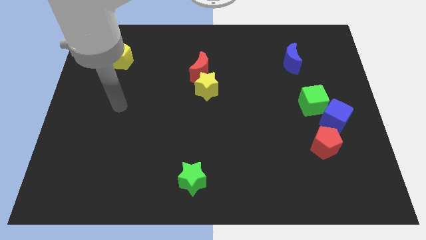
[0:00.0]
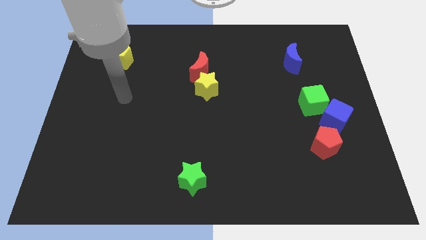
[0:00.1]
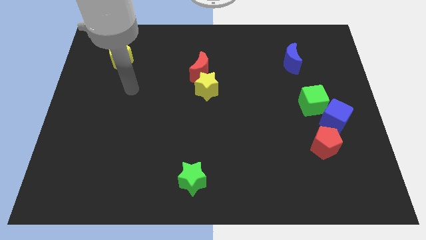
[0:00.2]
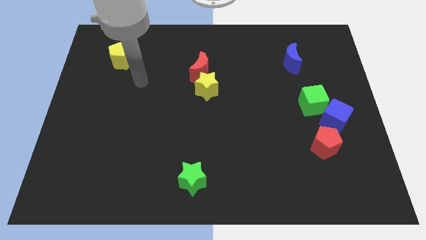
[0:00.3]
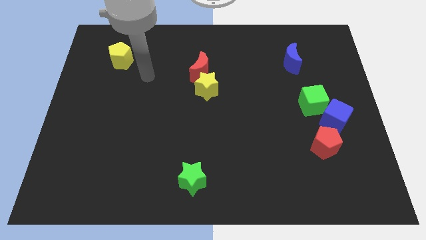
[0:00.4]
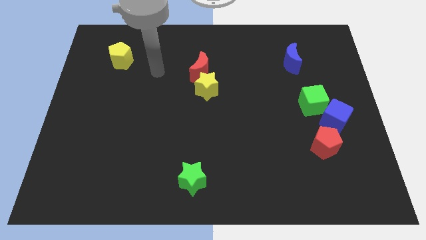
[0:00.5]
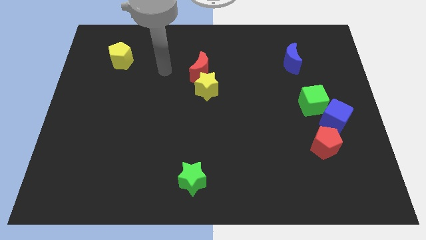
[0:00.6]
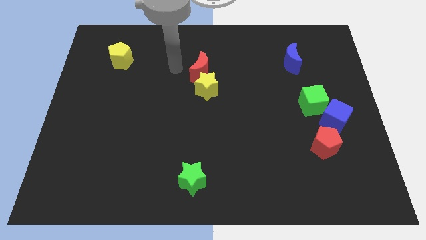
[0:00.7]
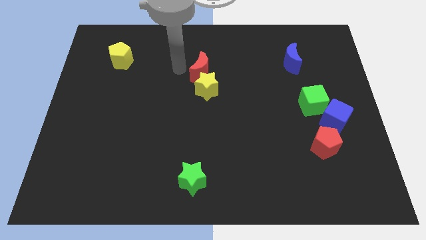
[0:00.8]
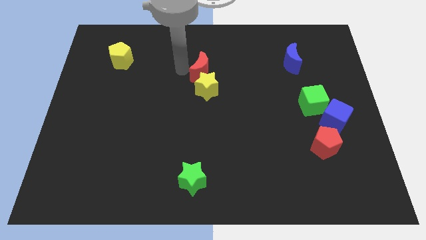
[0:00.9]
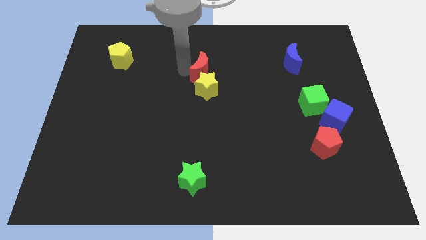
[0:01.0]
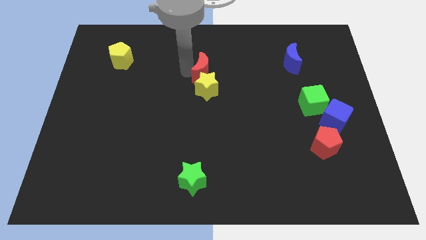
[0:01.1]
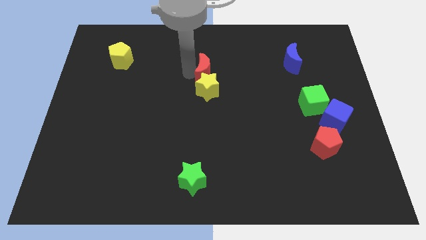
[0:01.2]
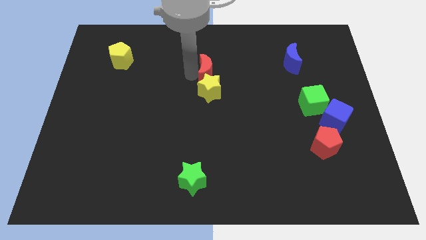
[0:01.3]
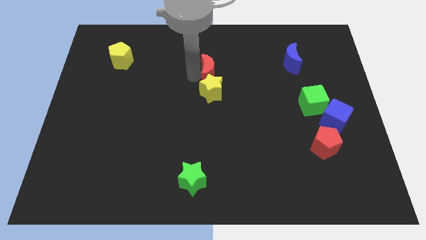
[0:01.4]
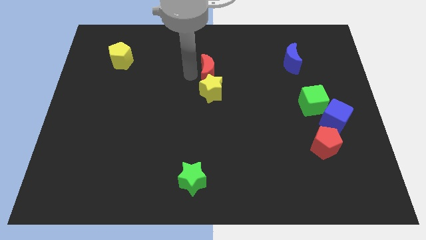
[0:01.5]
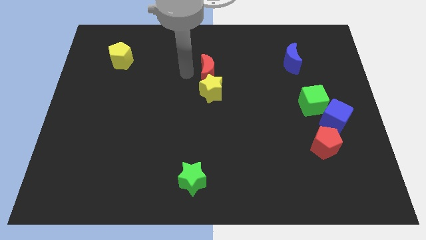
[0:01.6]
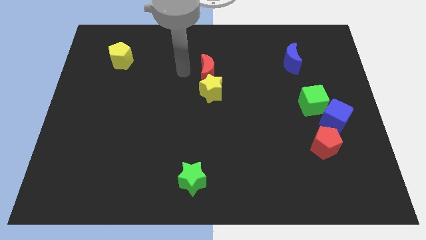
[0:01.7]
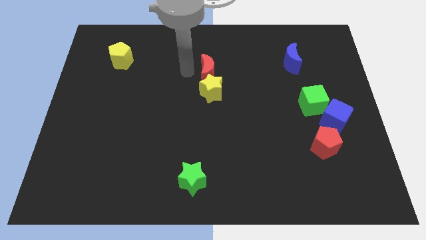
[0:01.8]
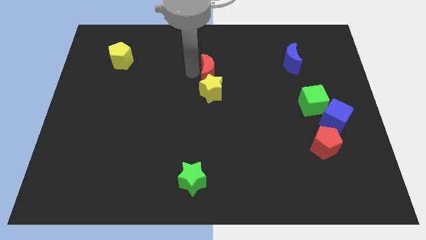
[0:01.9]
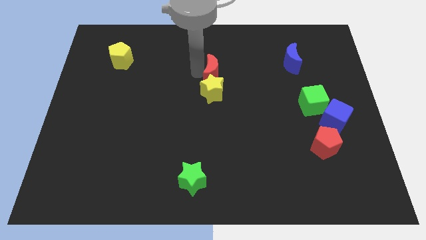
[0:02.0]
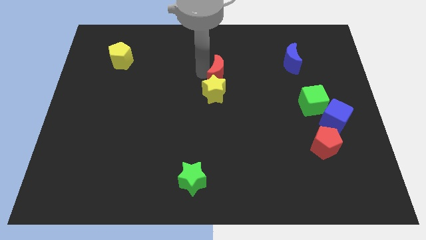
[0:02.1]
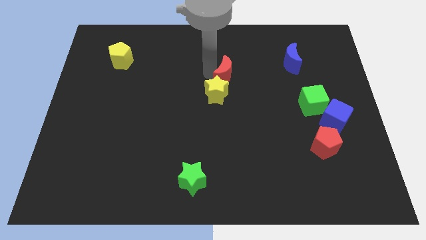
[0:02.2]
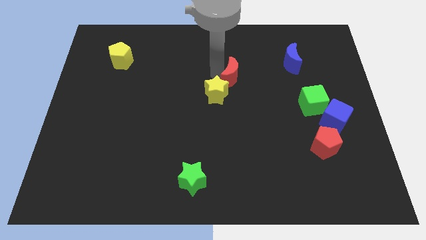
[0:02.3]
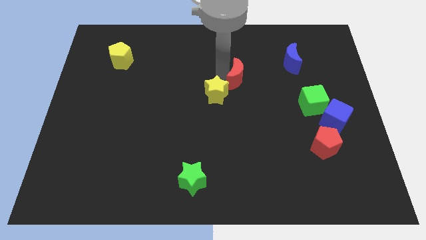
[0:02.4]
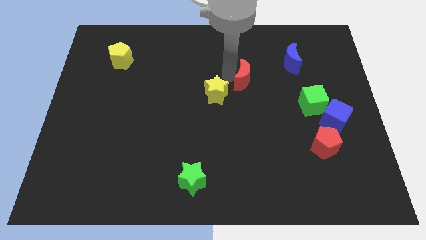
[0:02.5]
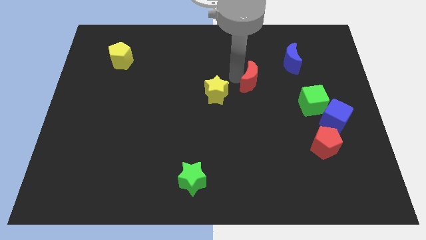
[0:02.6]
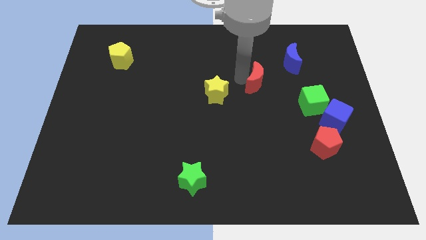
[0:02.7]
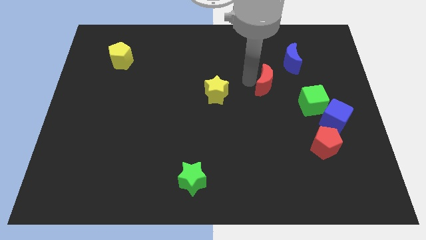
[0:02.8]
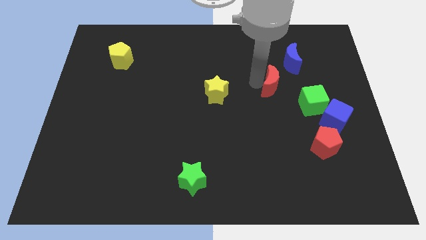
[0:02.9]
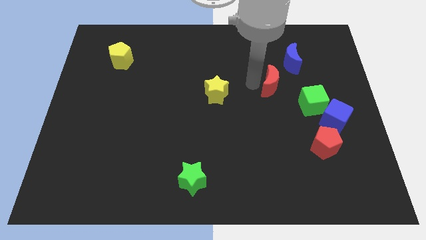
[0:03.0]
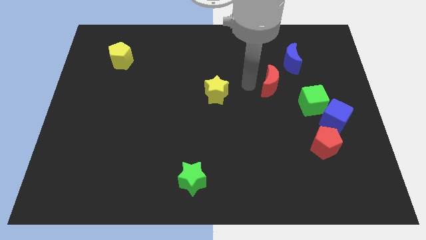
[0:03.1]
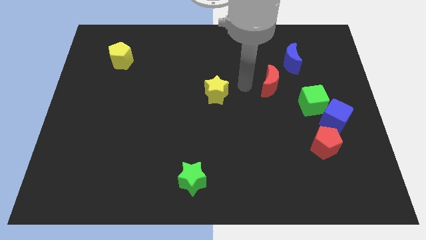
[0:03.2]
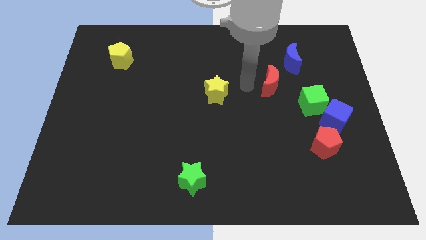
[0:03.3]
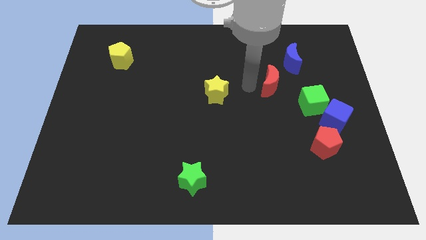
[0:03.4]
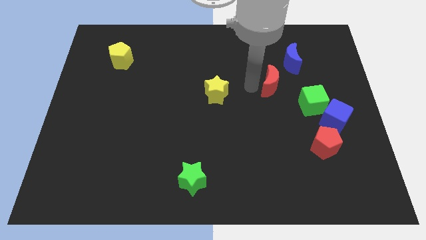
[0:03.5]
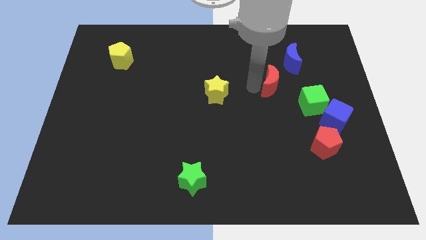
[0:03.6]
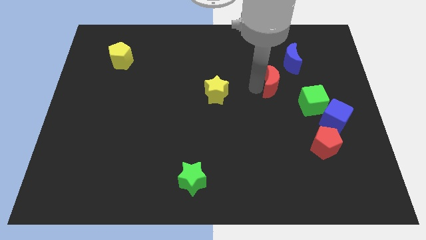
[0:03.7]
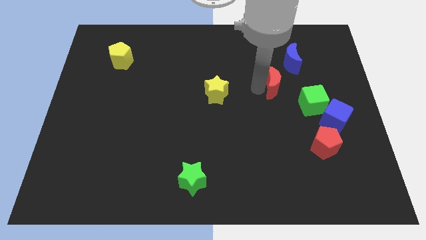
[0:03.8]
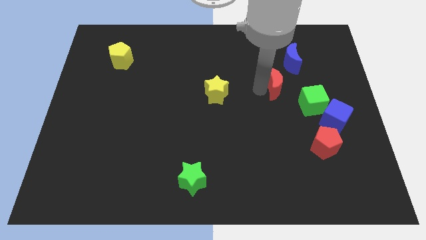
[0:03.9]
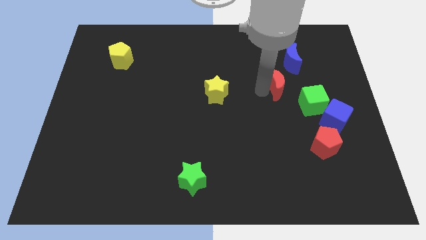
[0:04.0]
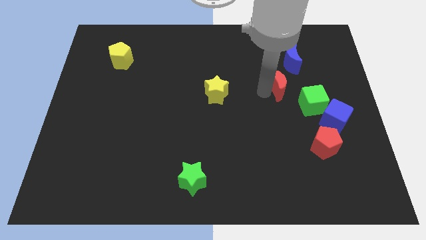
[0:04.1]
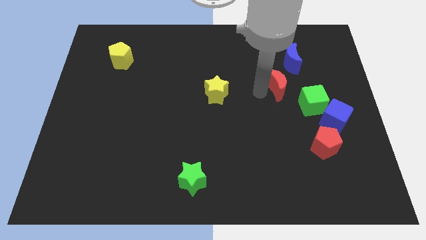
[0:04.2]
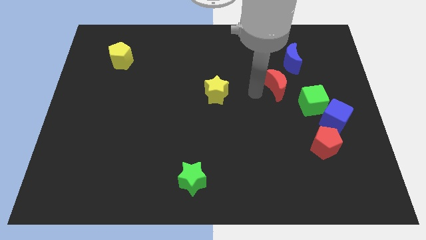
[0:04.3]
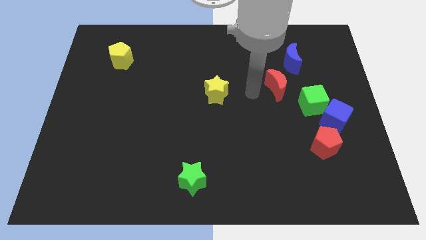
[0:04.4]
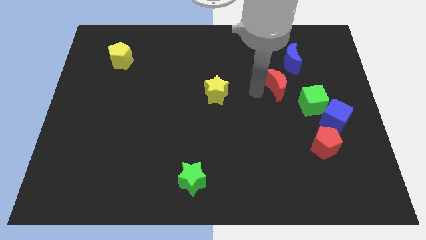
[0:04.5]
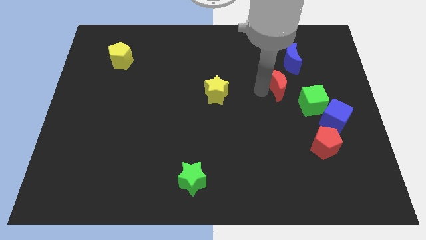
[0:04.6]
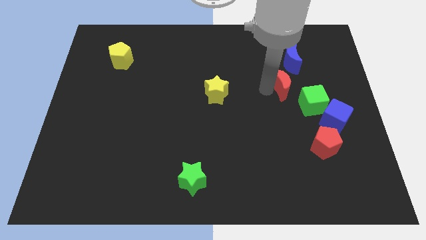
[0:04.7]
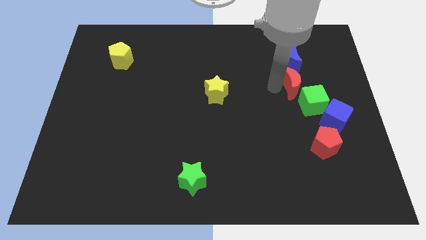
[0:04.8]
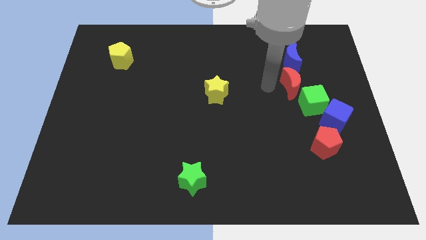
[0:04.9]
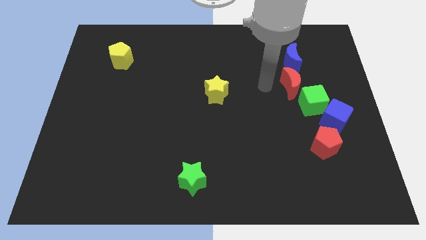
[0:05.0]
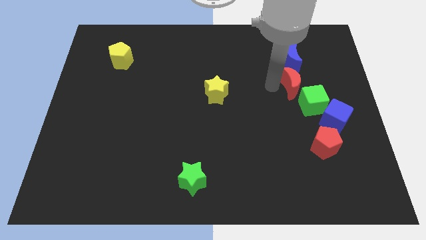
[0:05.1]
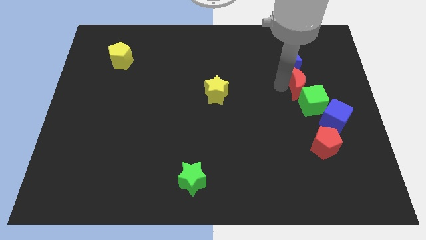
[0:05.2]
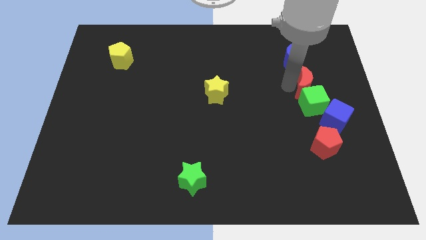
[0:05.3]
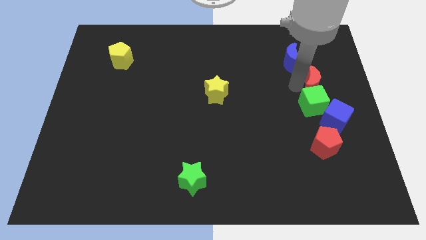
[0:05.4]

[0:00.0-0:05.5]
put the red moon above the blue cube

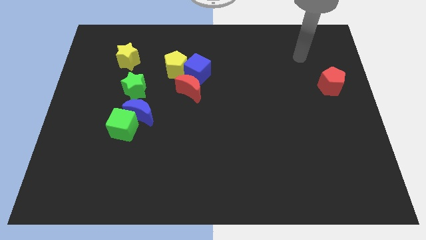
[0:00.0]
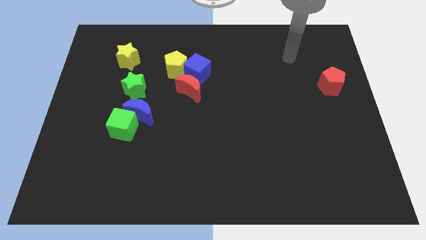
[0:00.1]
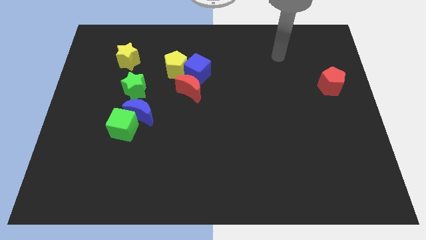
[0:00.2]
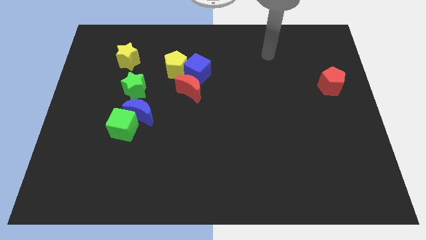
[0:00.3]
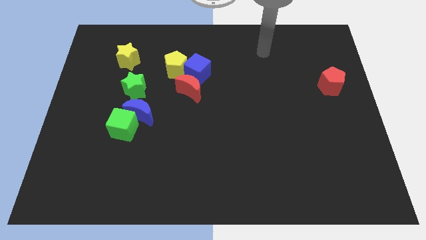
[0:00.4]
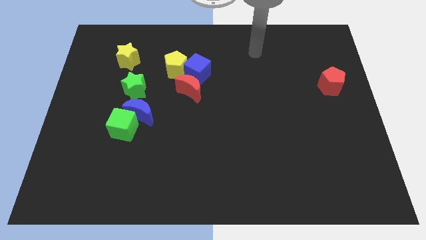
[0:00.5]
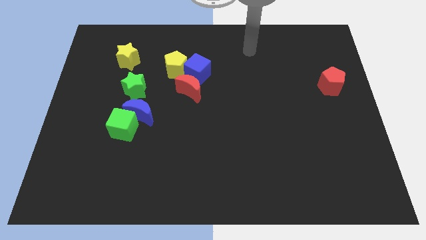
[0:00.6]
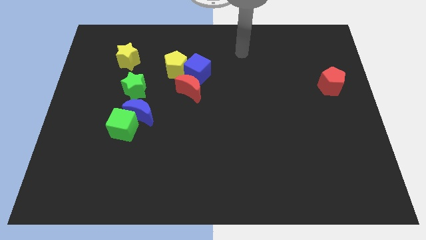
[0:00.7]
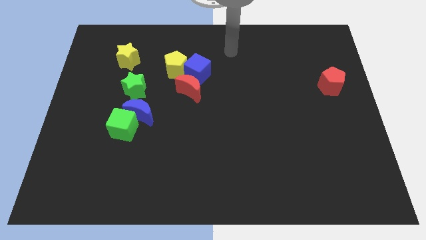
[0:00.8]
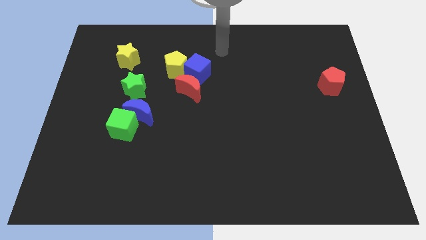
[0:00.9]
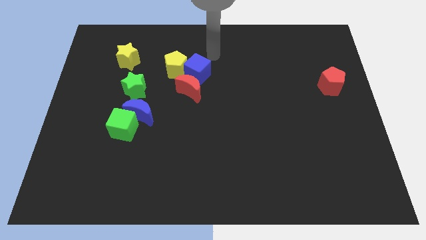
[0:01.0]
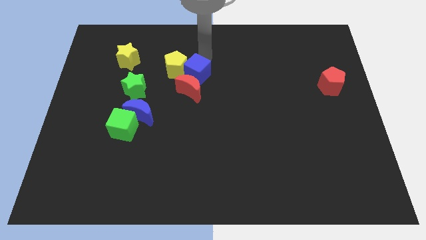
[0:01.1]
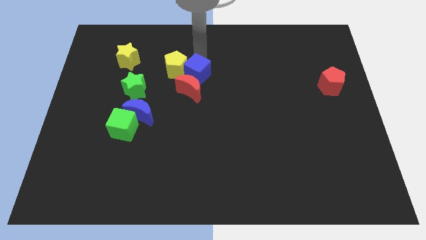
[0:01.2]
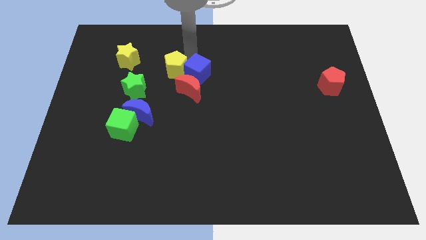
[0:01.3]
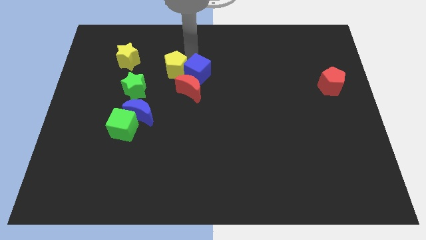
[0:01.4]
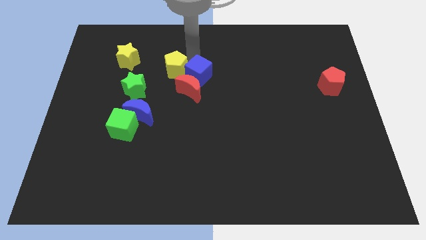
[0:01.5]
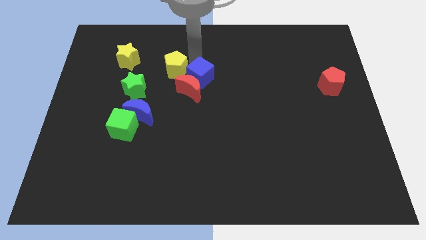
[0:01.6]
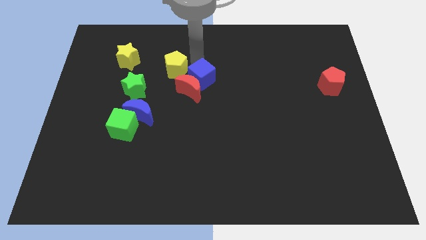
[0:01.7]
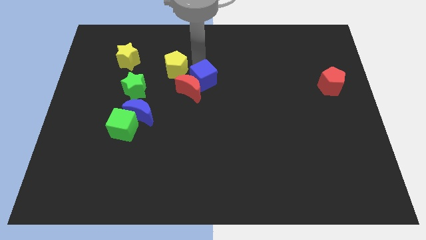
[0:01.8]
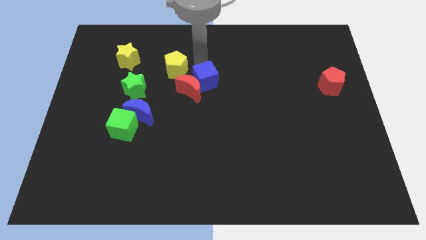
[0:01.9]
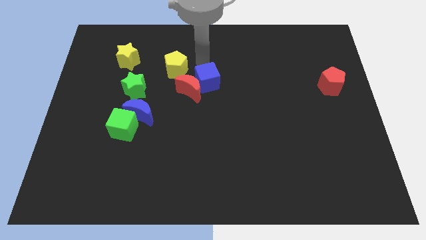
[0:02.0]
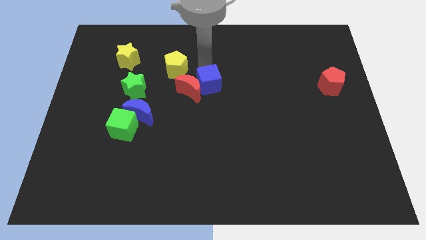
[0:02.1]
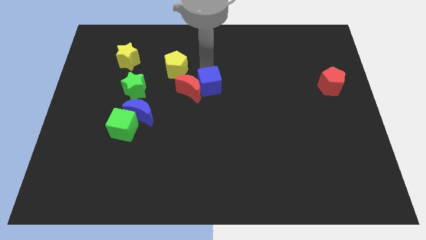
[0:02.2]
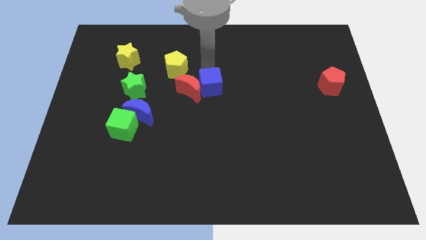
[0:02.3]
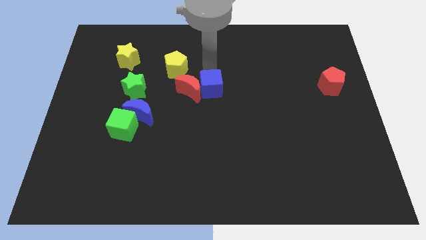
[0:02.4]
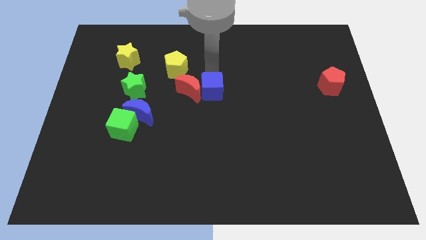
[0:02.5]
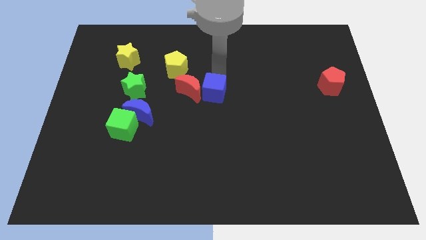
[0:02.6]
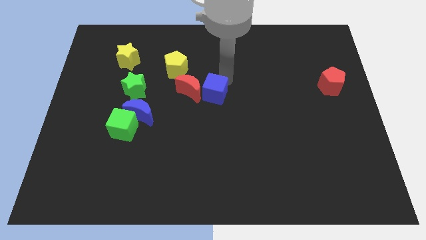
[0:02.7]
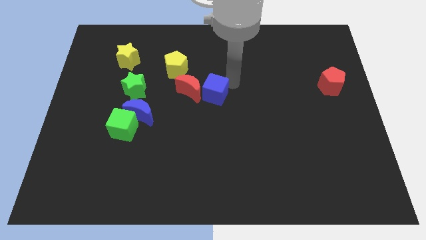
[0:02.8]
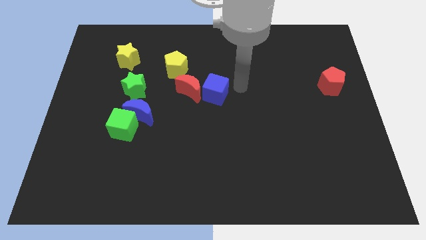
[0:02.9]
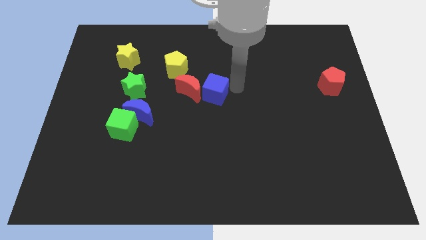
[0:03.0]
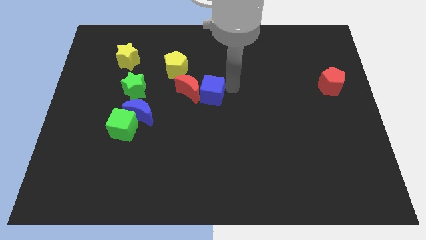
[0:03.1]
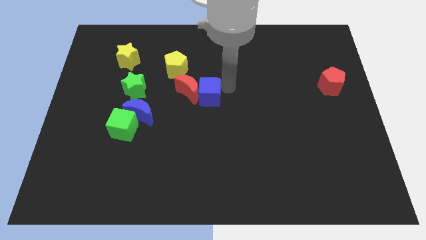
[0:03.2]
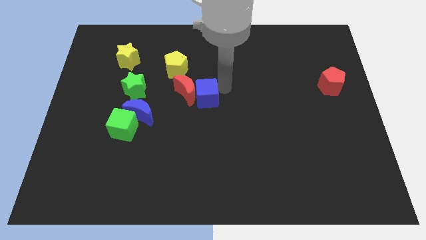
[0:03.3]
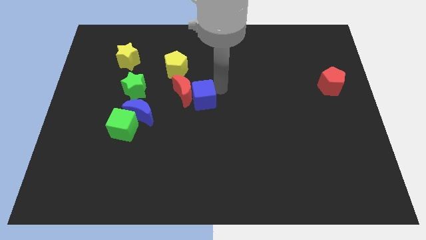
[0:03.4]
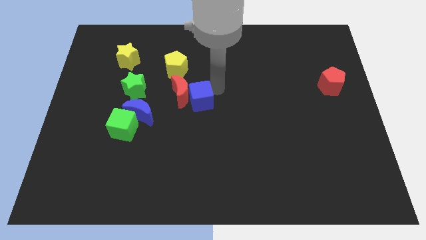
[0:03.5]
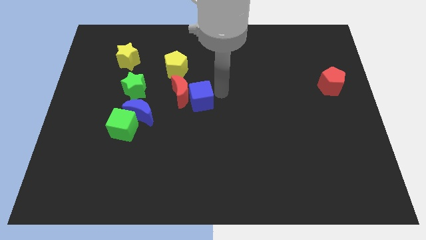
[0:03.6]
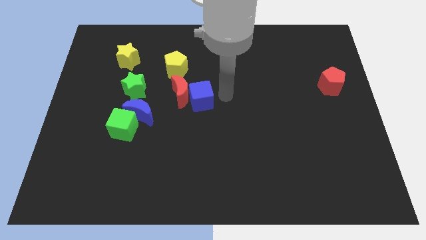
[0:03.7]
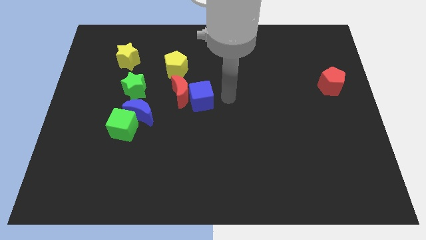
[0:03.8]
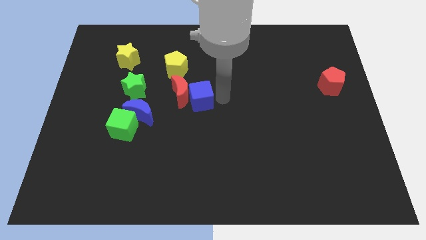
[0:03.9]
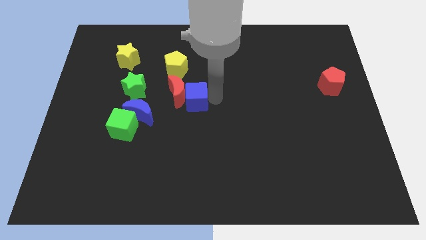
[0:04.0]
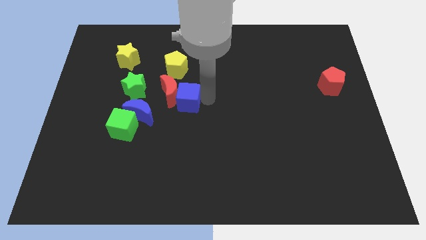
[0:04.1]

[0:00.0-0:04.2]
move the blue cube below the yellow pentagon
